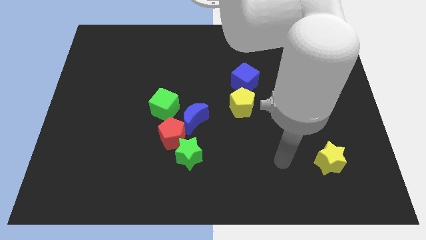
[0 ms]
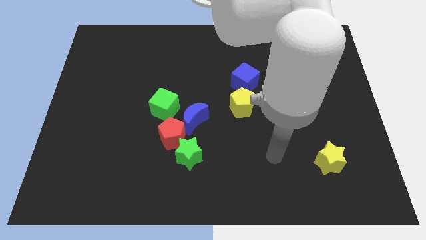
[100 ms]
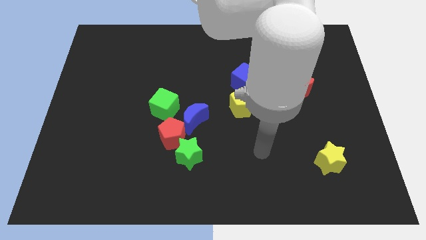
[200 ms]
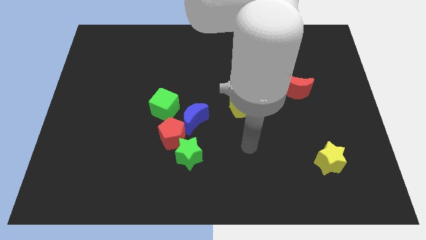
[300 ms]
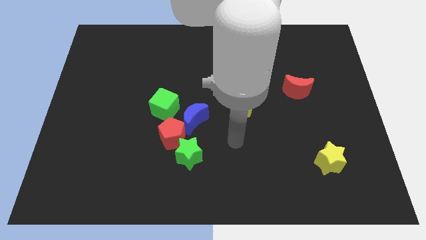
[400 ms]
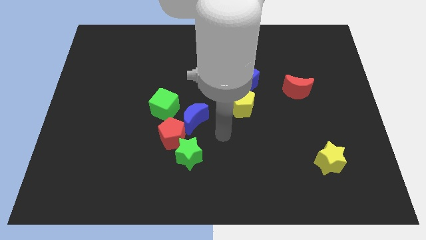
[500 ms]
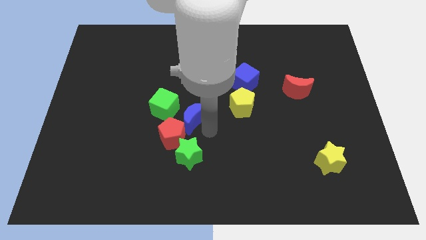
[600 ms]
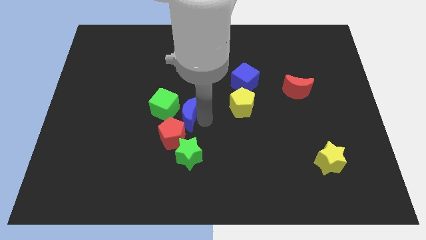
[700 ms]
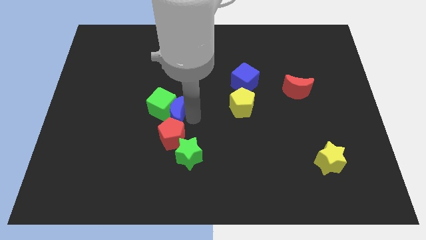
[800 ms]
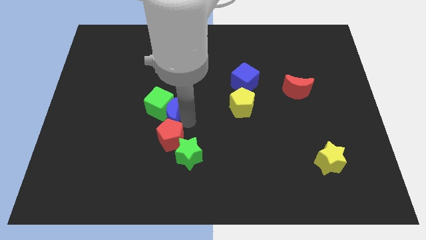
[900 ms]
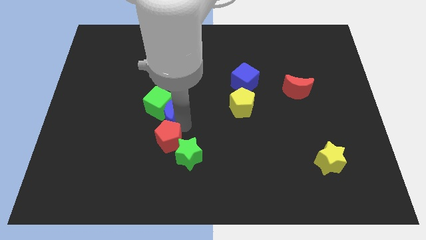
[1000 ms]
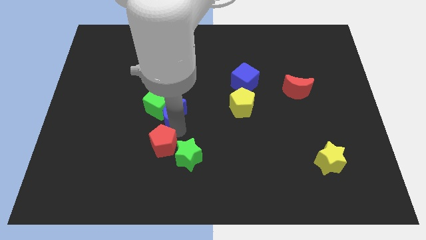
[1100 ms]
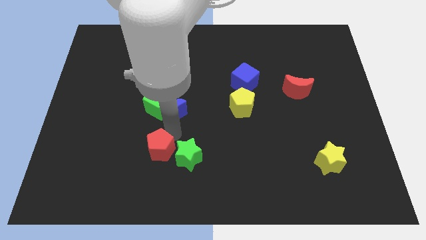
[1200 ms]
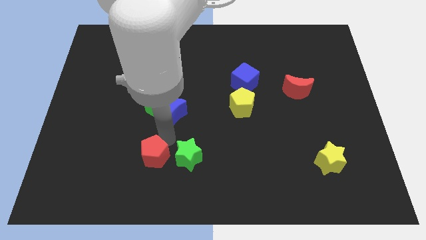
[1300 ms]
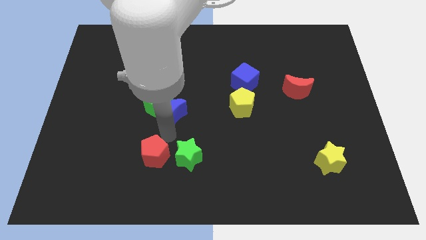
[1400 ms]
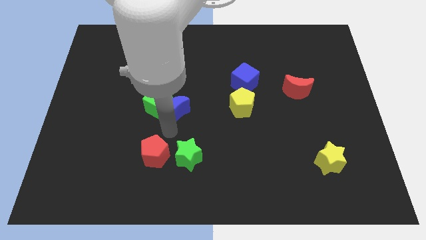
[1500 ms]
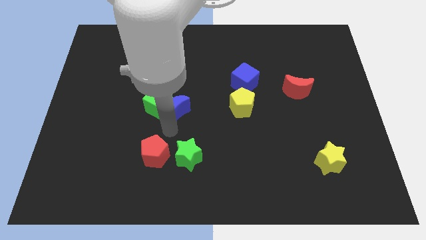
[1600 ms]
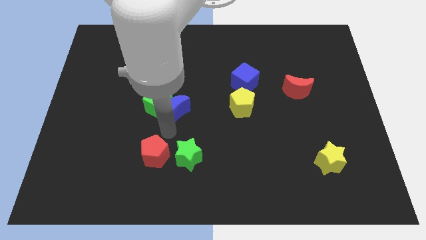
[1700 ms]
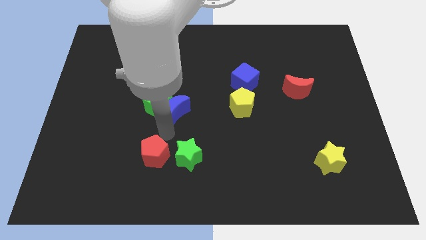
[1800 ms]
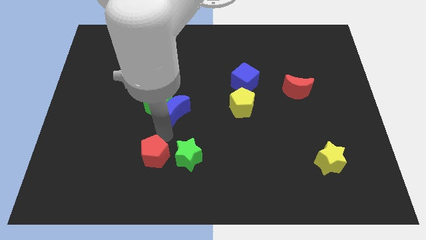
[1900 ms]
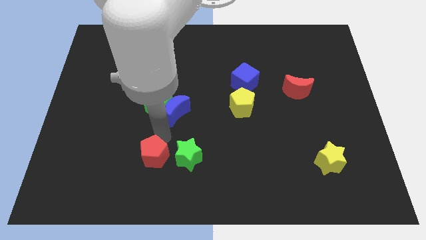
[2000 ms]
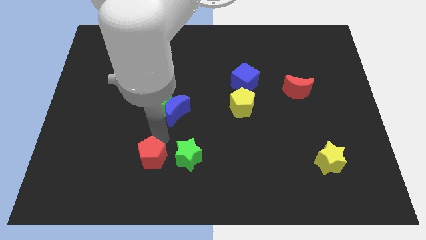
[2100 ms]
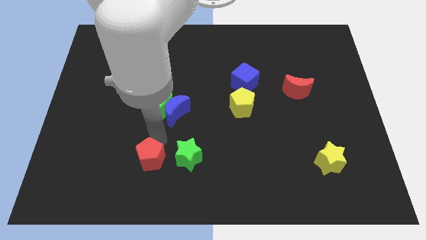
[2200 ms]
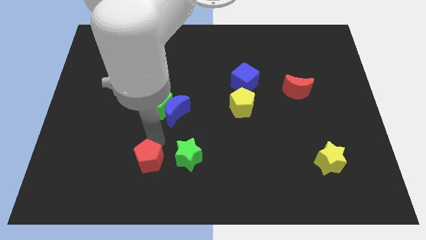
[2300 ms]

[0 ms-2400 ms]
pull the red pentagon apart from the green star, blue moon, and green cube

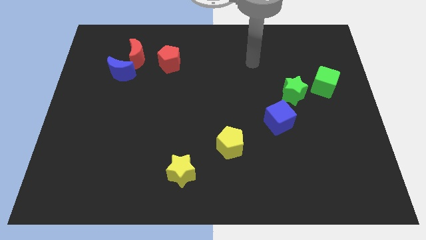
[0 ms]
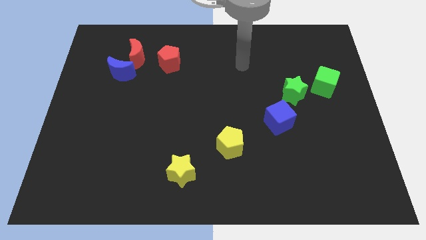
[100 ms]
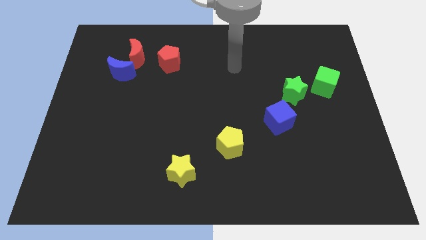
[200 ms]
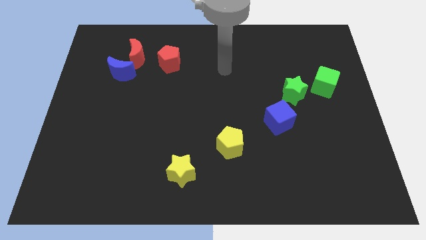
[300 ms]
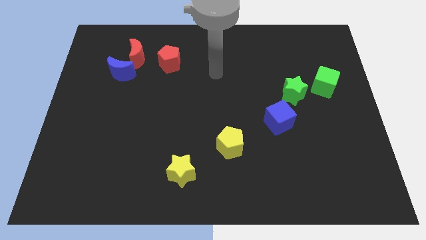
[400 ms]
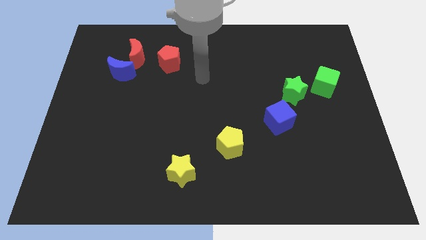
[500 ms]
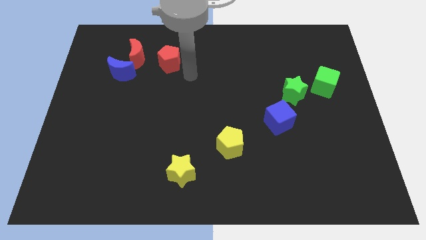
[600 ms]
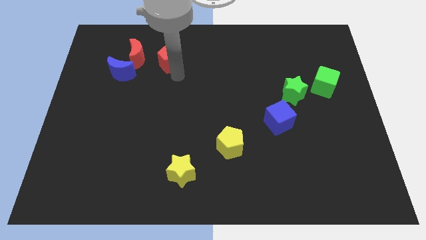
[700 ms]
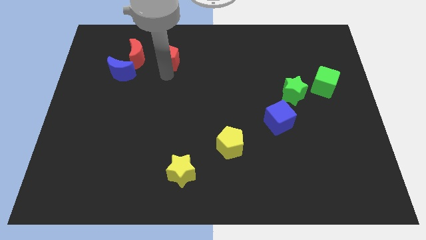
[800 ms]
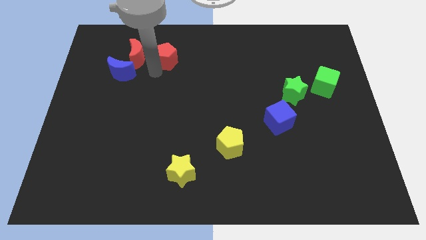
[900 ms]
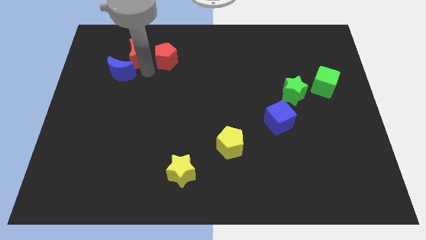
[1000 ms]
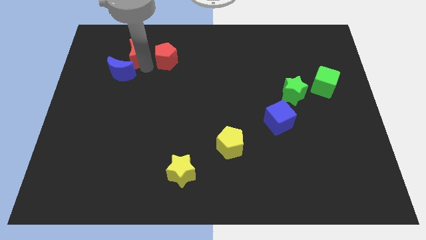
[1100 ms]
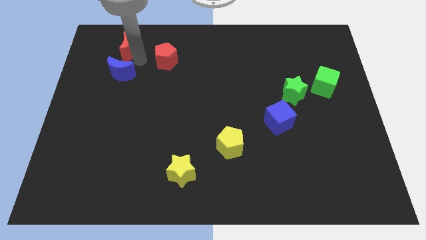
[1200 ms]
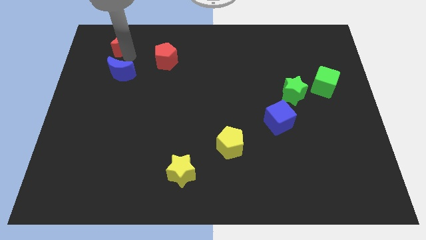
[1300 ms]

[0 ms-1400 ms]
pull the blue moon apart from the red moon

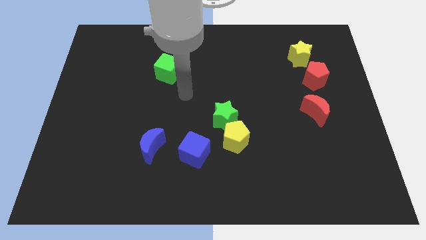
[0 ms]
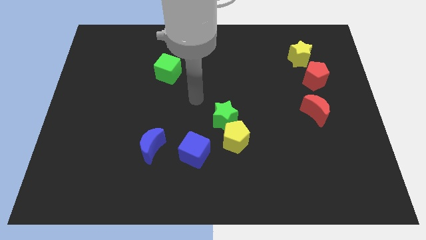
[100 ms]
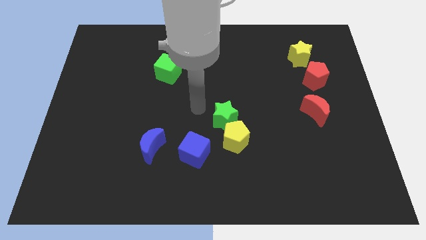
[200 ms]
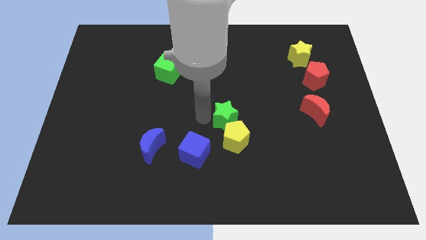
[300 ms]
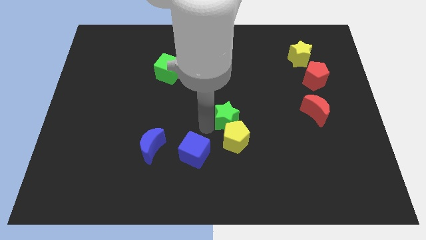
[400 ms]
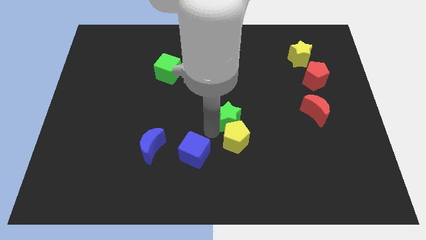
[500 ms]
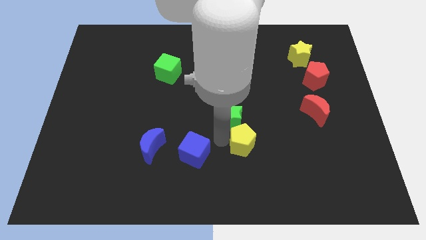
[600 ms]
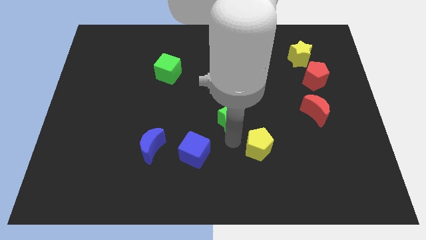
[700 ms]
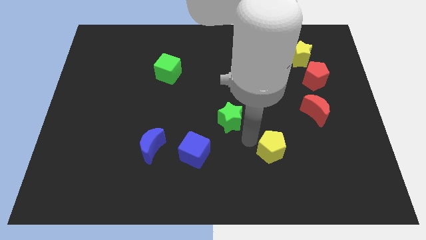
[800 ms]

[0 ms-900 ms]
separate the green star from the yellow pentagon

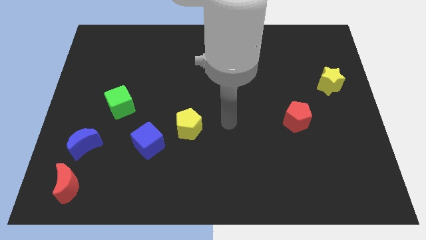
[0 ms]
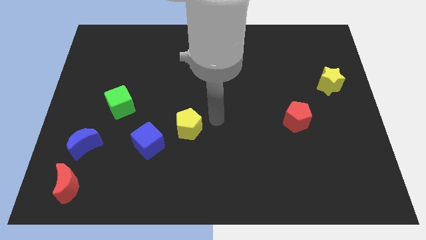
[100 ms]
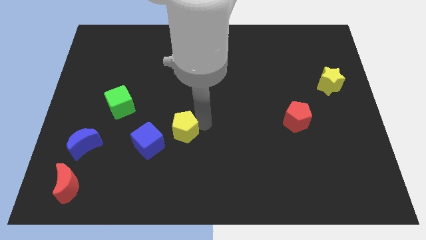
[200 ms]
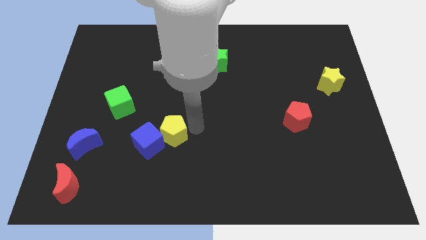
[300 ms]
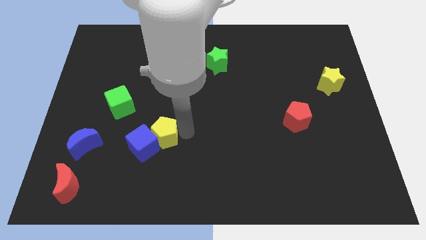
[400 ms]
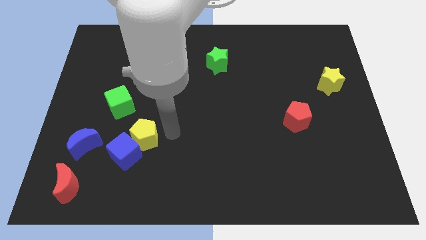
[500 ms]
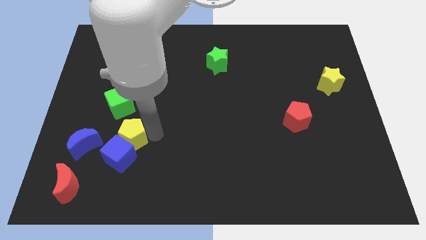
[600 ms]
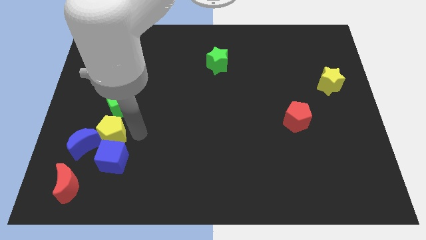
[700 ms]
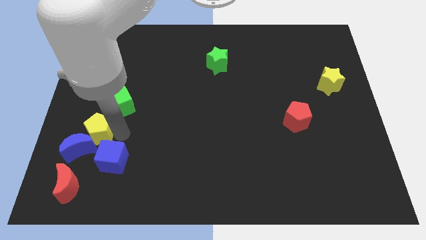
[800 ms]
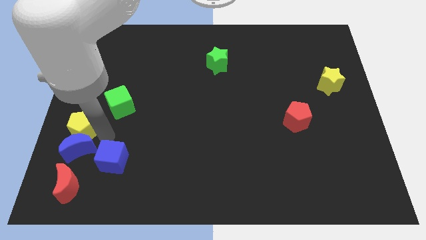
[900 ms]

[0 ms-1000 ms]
move the blue cube away from the yellow pentagon

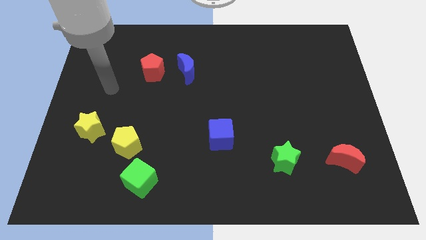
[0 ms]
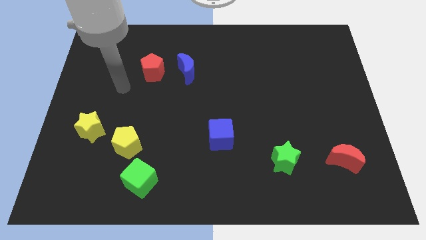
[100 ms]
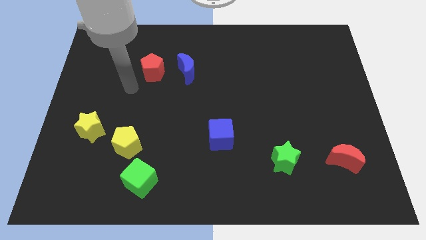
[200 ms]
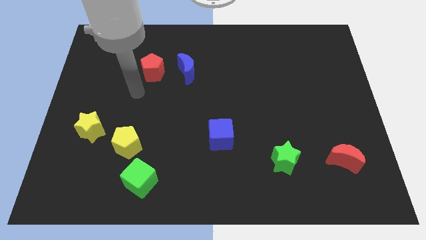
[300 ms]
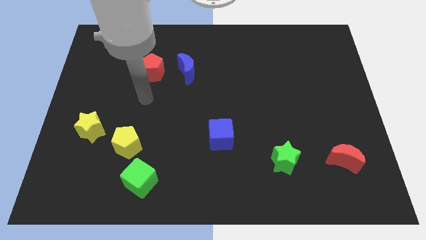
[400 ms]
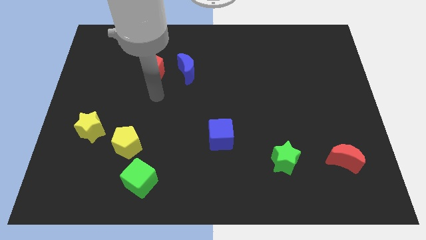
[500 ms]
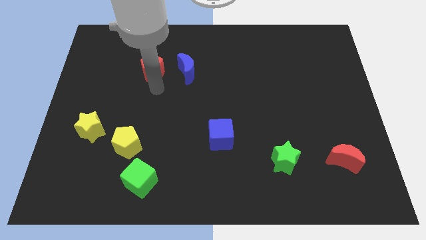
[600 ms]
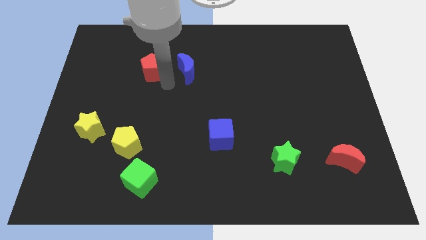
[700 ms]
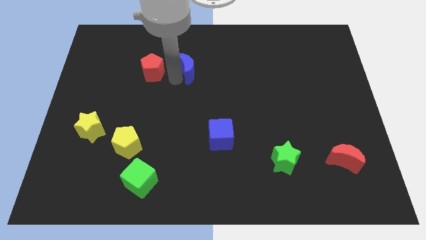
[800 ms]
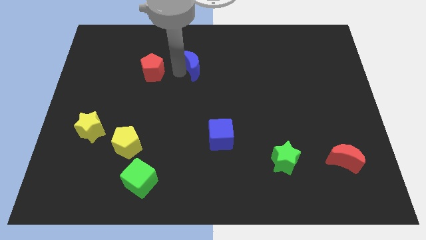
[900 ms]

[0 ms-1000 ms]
move the red pentagon away from the blue moon

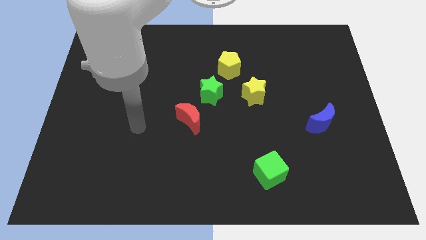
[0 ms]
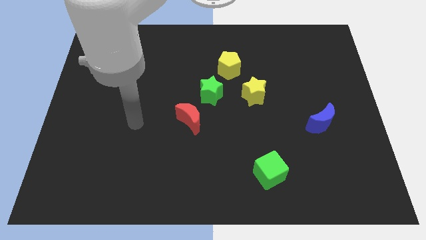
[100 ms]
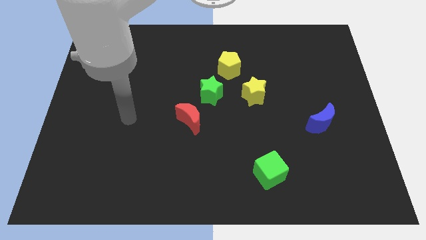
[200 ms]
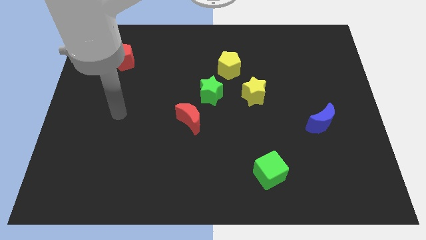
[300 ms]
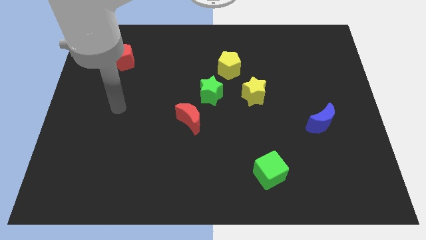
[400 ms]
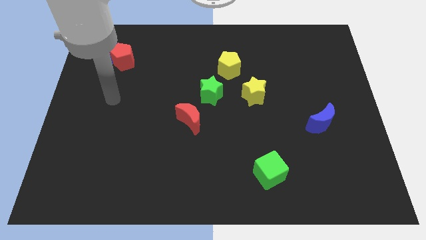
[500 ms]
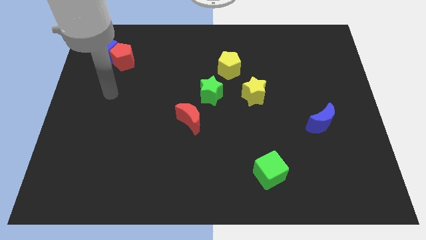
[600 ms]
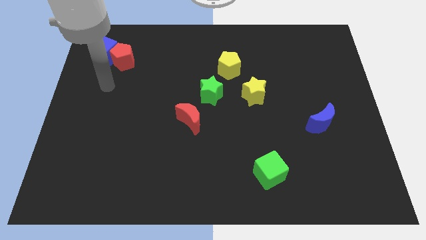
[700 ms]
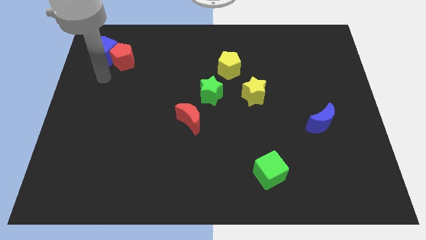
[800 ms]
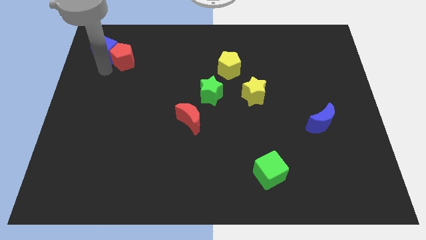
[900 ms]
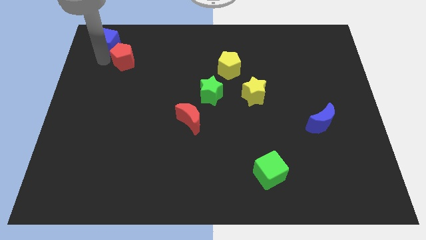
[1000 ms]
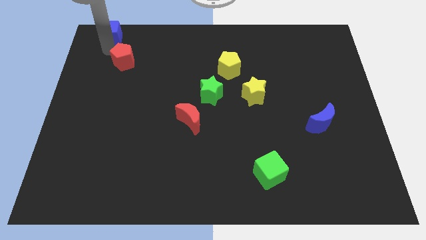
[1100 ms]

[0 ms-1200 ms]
move the red pentagon away from the blue cube

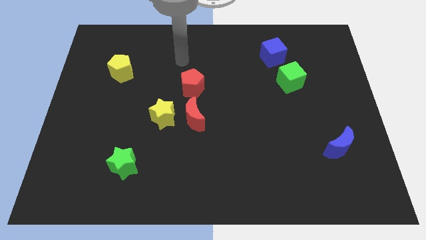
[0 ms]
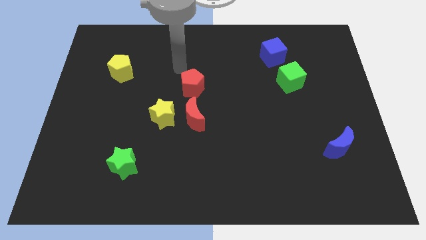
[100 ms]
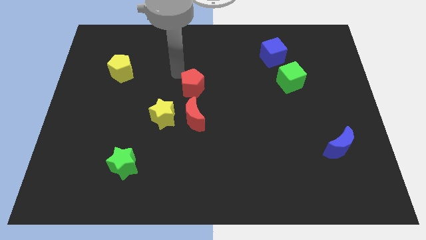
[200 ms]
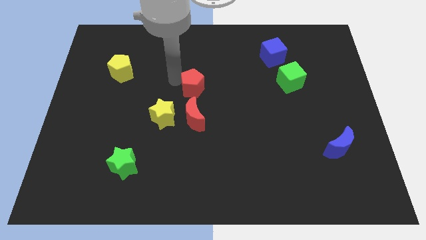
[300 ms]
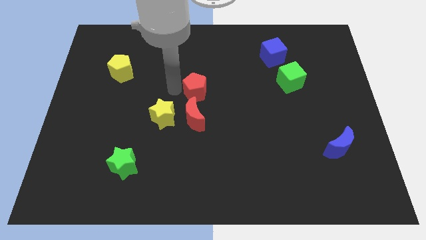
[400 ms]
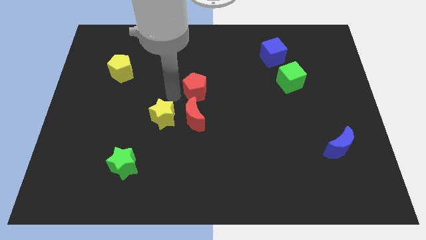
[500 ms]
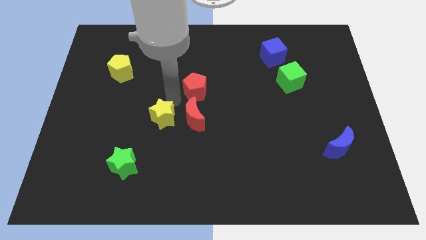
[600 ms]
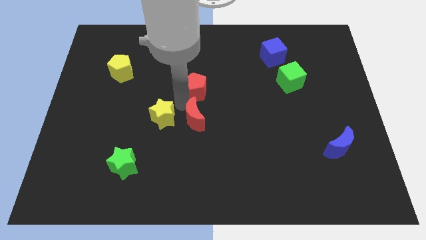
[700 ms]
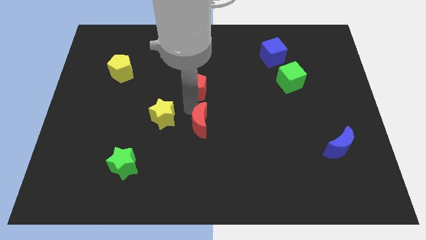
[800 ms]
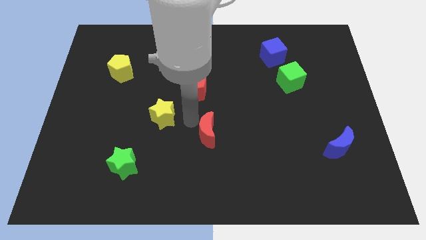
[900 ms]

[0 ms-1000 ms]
move the yellow star away from the red moon

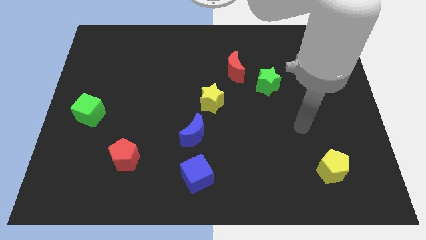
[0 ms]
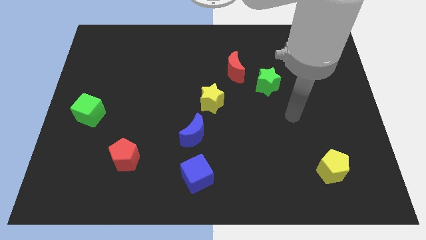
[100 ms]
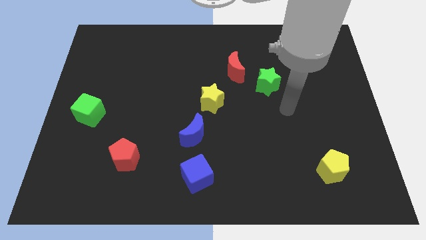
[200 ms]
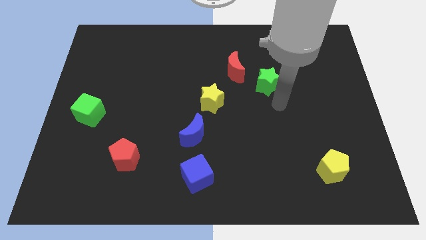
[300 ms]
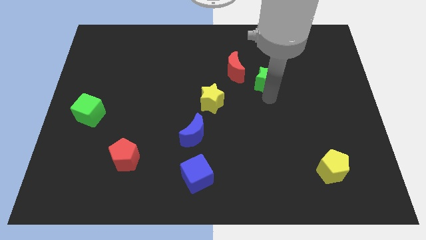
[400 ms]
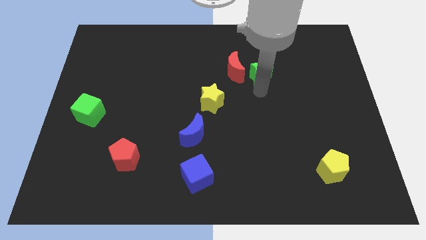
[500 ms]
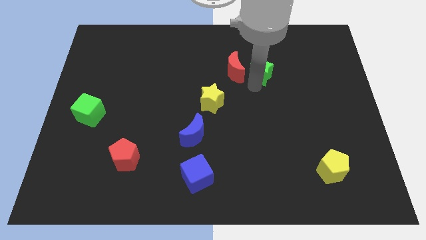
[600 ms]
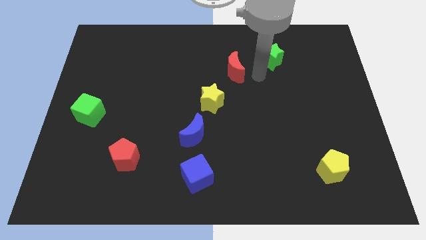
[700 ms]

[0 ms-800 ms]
separate the red moon from the green star
